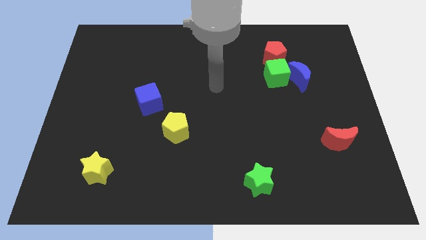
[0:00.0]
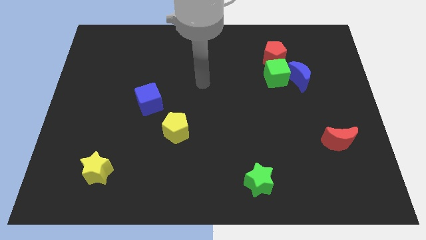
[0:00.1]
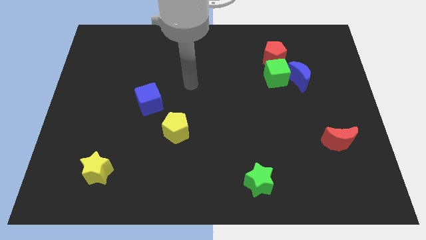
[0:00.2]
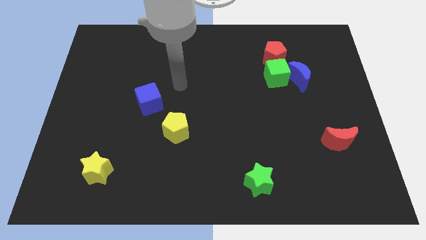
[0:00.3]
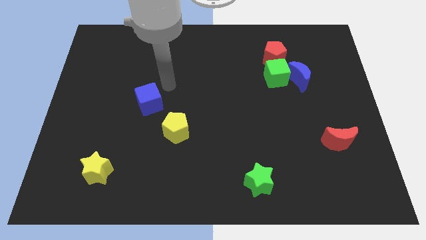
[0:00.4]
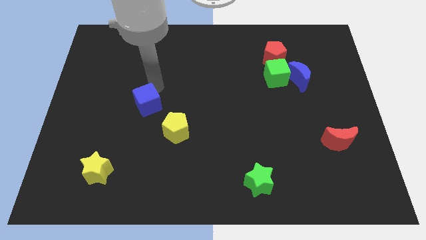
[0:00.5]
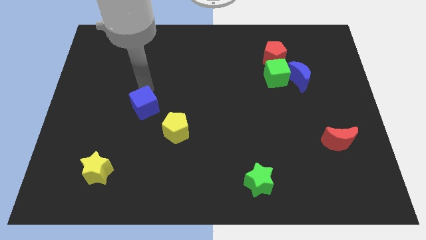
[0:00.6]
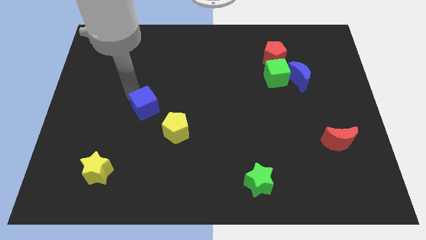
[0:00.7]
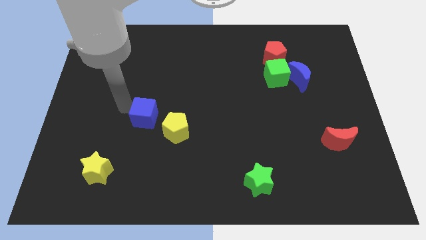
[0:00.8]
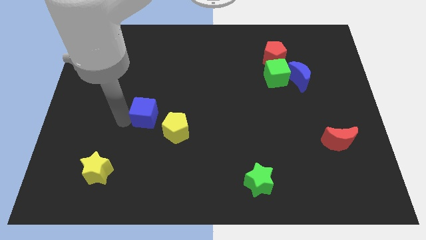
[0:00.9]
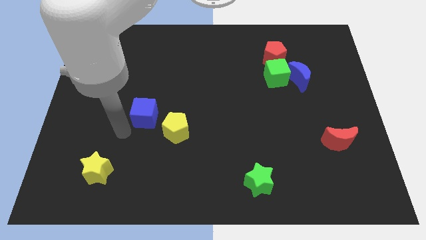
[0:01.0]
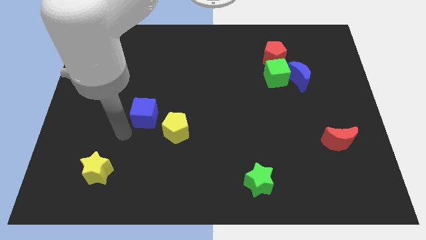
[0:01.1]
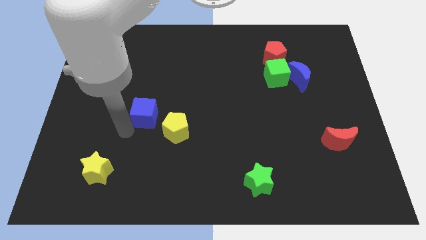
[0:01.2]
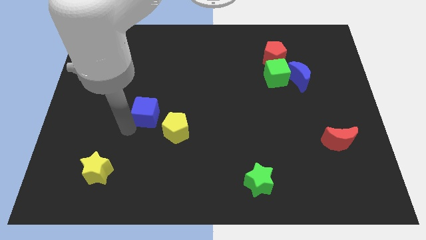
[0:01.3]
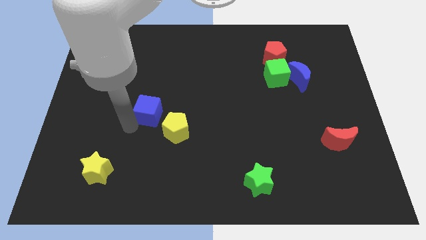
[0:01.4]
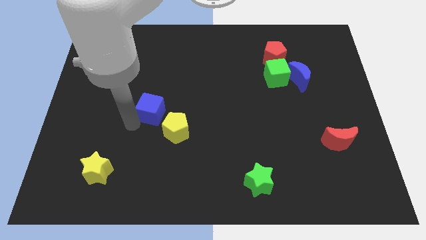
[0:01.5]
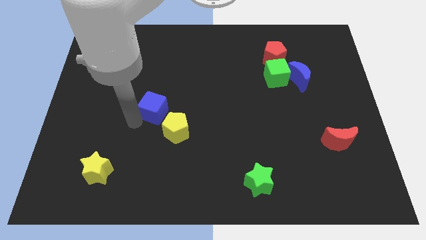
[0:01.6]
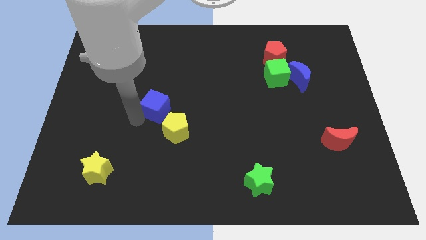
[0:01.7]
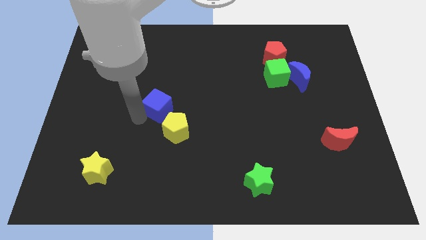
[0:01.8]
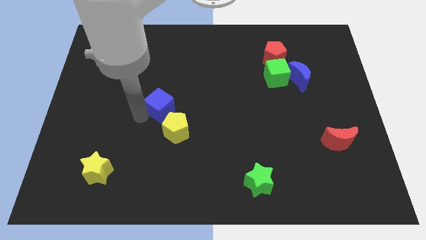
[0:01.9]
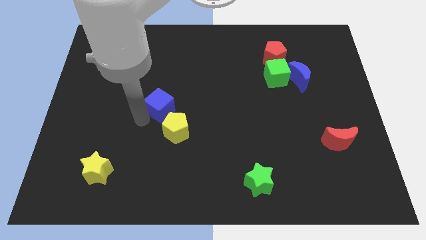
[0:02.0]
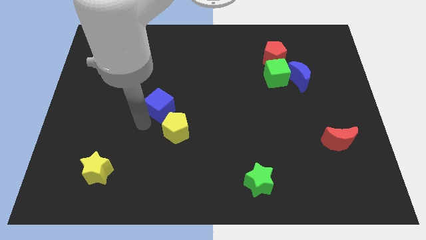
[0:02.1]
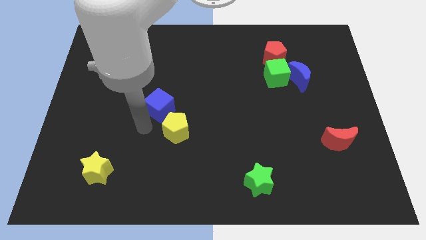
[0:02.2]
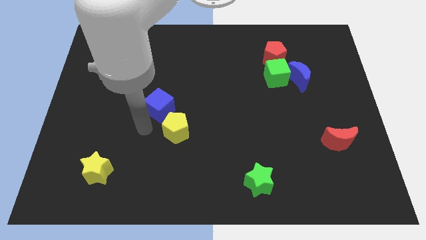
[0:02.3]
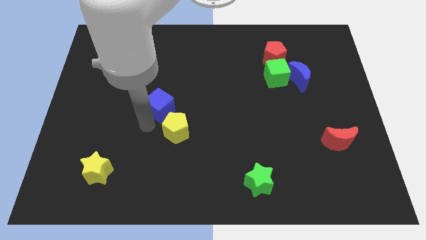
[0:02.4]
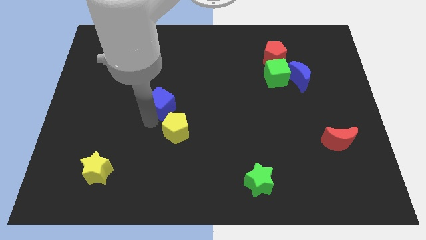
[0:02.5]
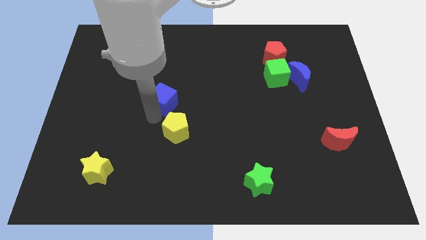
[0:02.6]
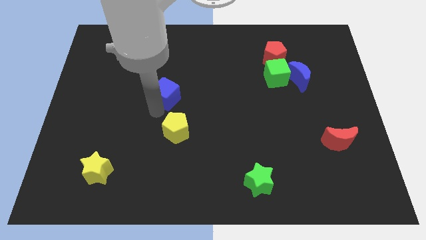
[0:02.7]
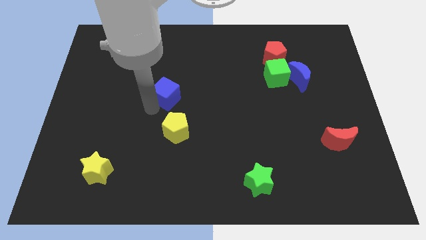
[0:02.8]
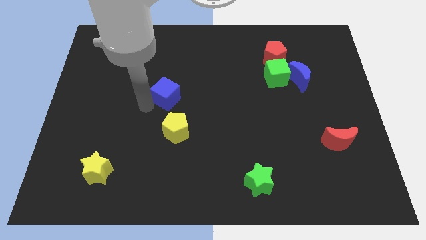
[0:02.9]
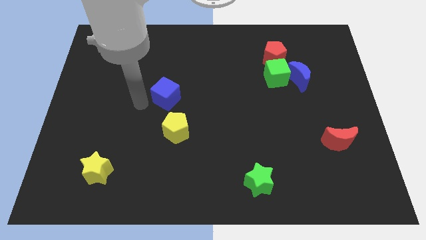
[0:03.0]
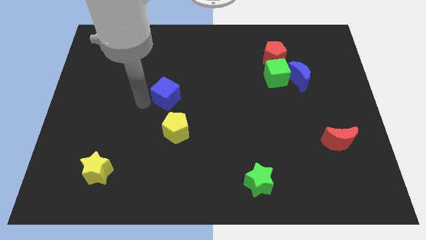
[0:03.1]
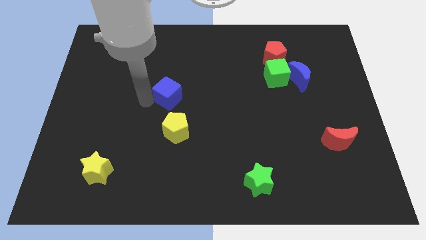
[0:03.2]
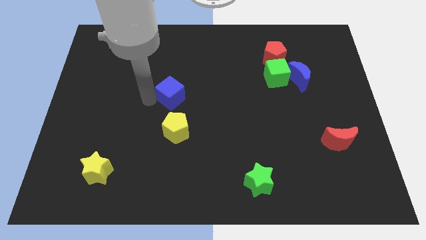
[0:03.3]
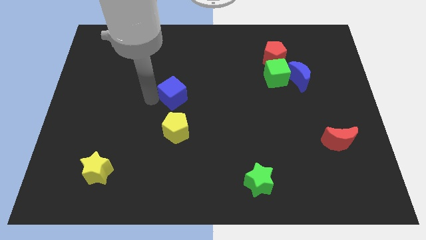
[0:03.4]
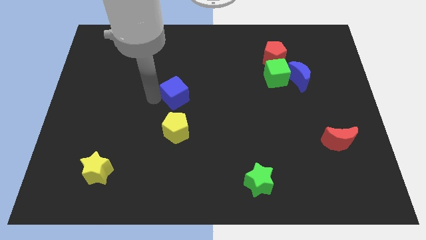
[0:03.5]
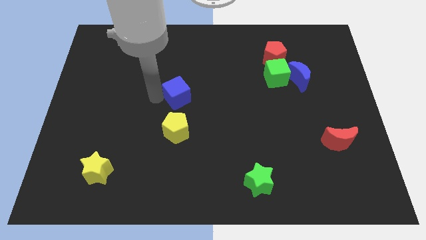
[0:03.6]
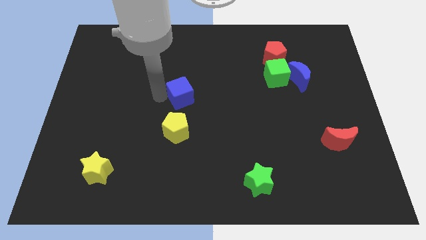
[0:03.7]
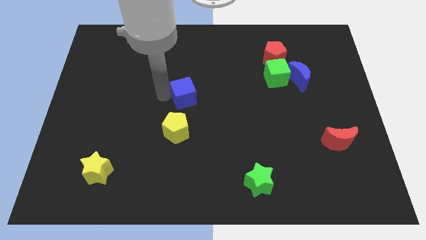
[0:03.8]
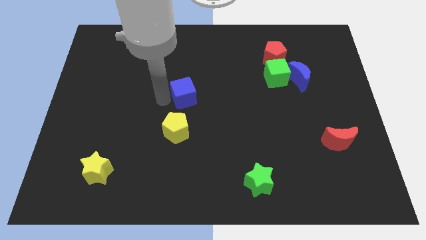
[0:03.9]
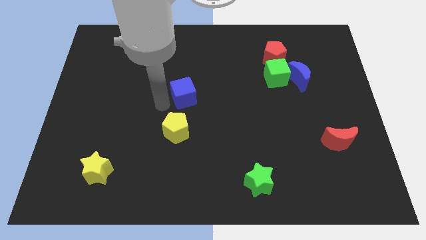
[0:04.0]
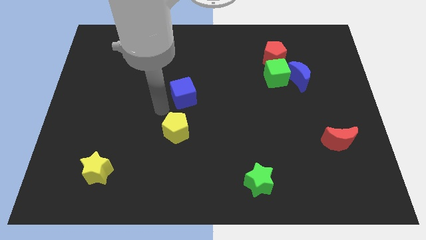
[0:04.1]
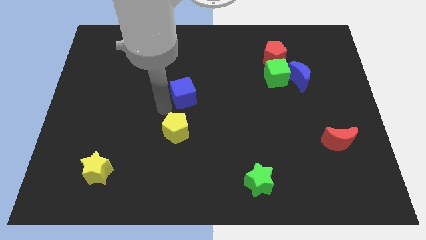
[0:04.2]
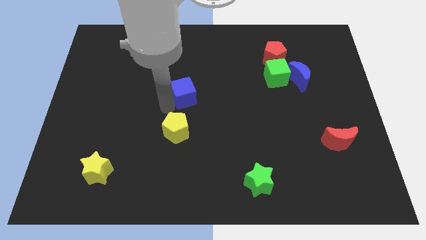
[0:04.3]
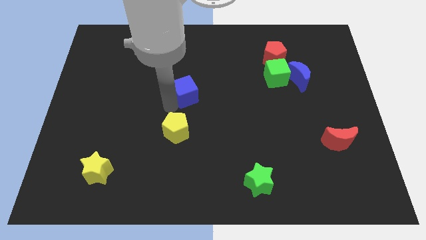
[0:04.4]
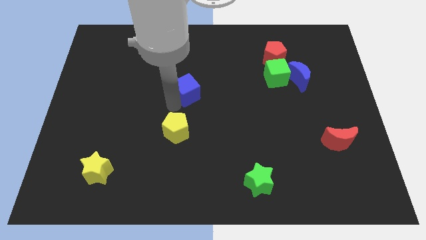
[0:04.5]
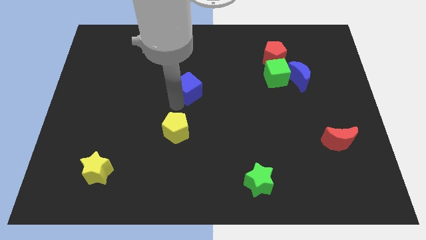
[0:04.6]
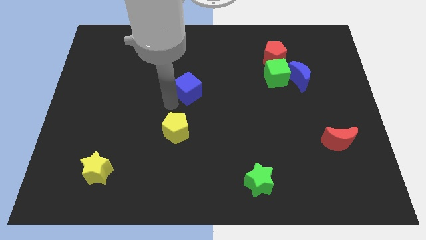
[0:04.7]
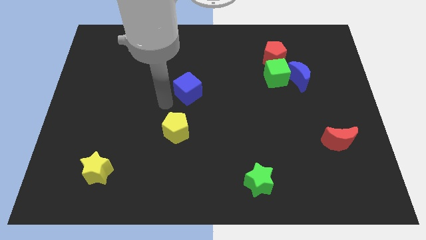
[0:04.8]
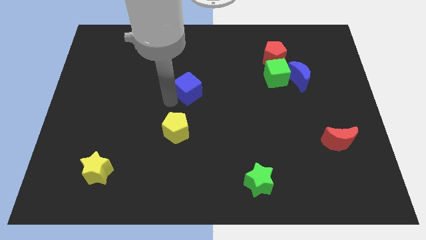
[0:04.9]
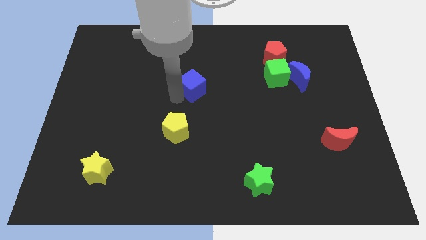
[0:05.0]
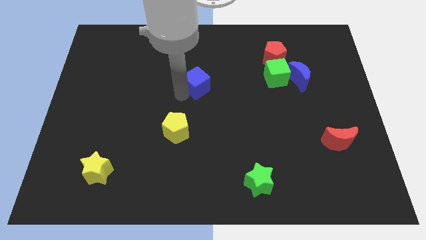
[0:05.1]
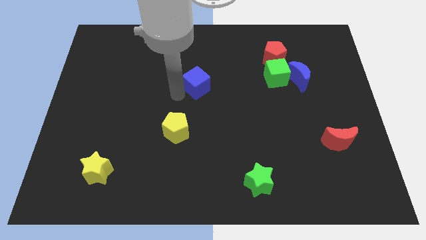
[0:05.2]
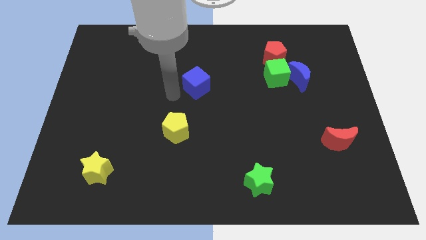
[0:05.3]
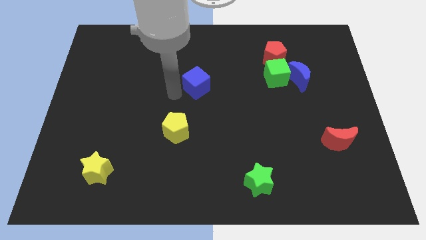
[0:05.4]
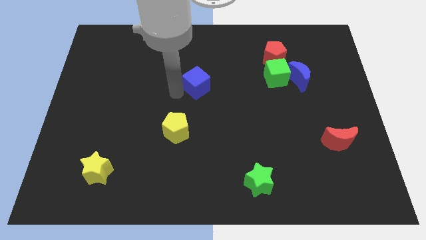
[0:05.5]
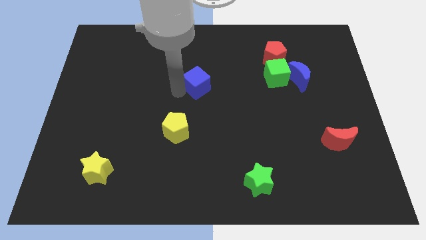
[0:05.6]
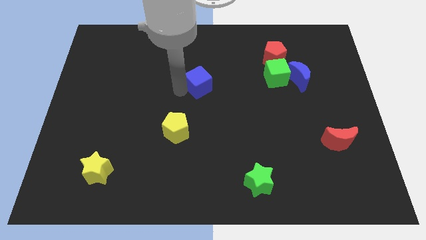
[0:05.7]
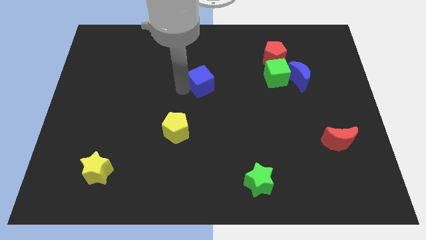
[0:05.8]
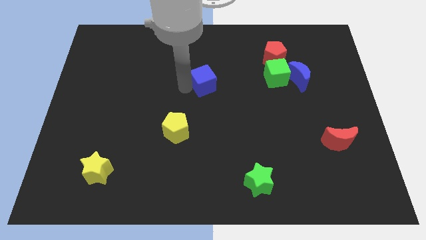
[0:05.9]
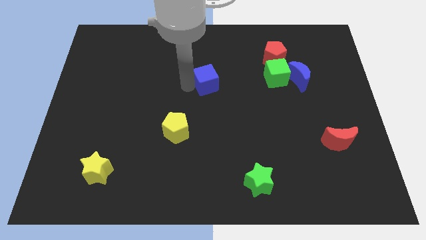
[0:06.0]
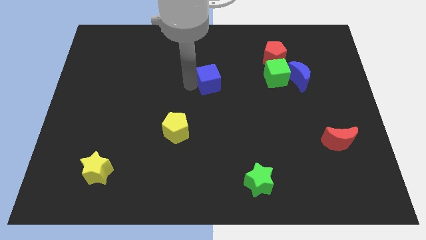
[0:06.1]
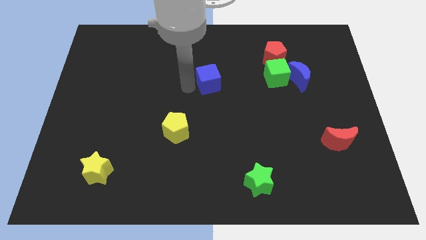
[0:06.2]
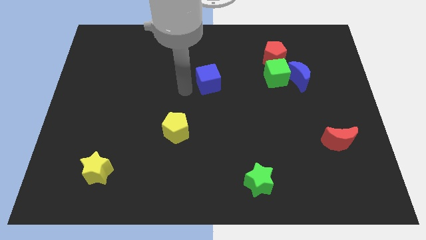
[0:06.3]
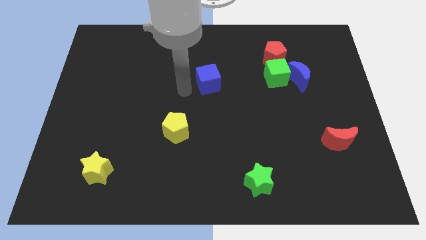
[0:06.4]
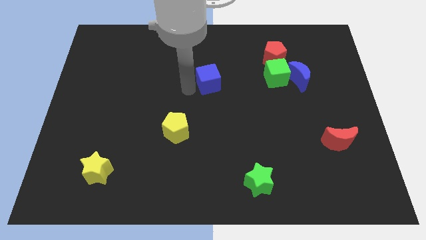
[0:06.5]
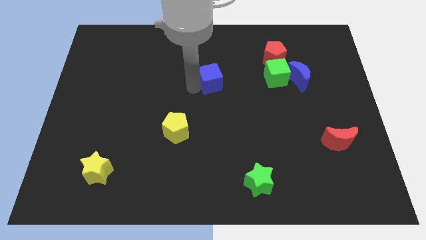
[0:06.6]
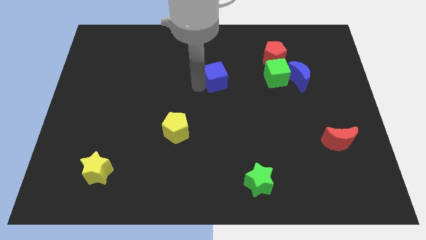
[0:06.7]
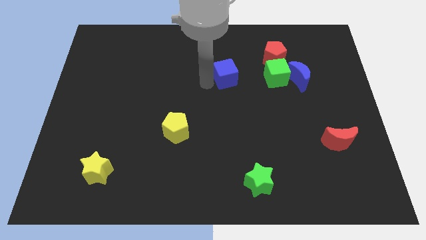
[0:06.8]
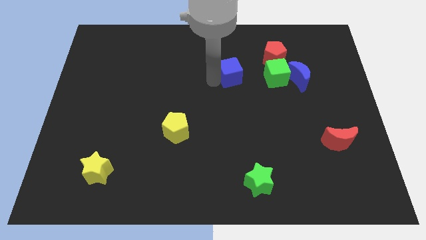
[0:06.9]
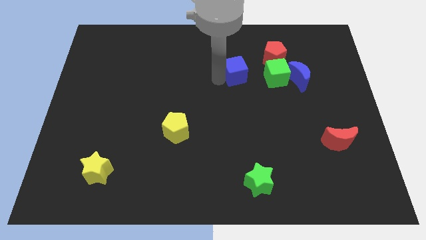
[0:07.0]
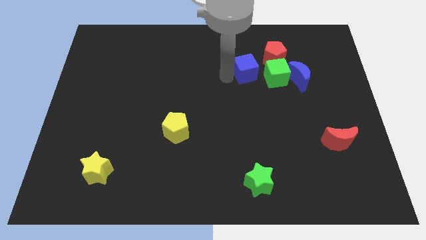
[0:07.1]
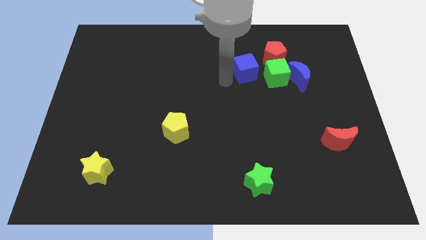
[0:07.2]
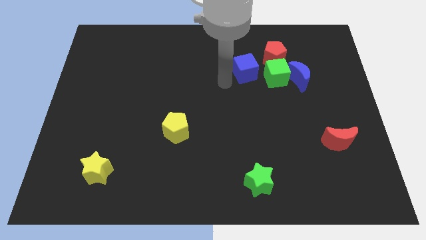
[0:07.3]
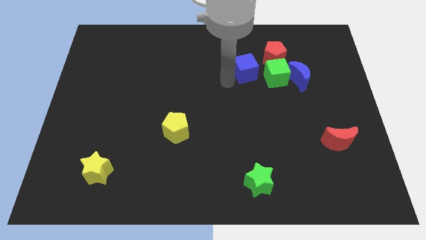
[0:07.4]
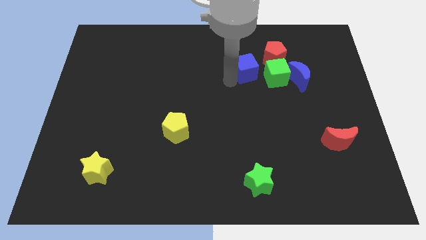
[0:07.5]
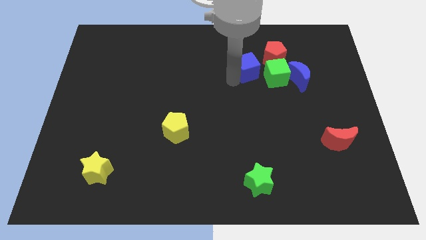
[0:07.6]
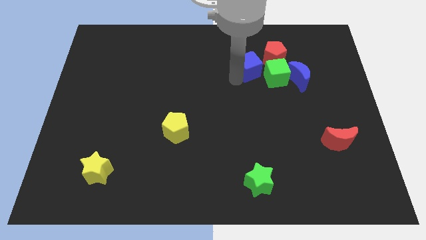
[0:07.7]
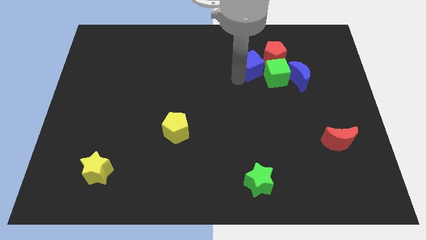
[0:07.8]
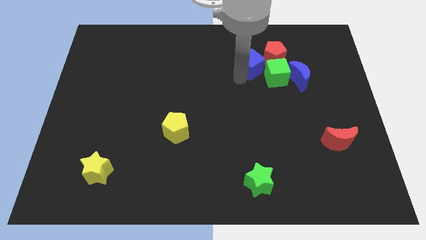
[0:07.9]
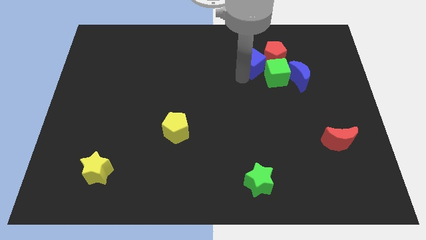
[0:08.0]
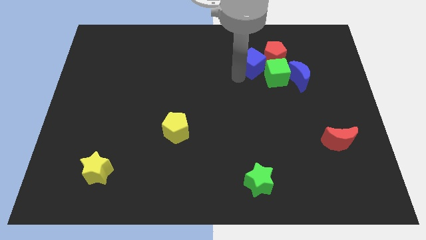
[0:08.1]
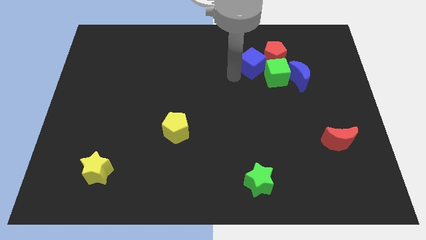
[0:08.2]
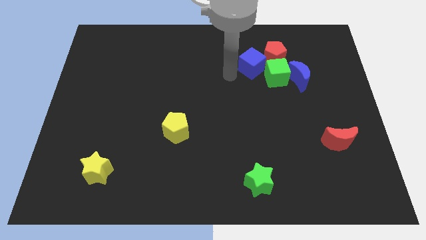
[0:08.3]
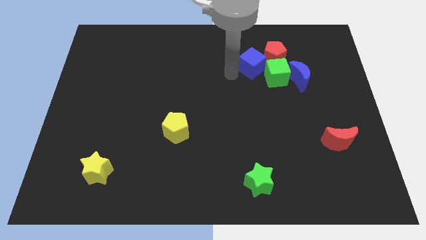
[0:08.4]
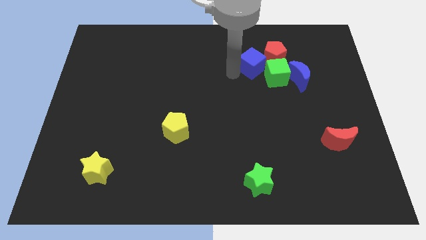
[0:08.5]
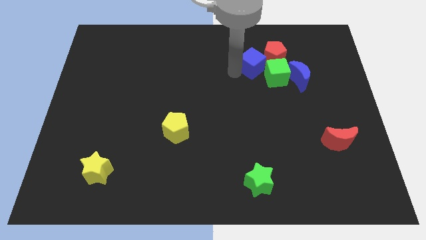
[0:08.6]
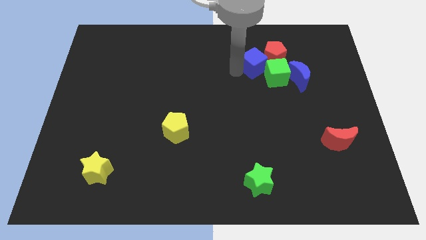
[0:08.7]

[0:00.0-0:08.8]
push the blue cube next to the red pentagon
